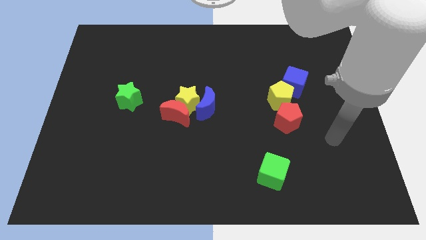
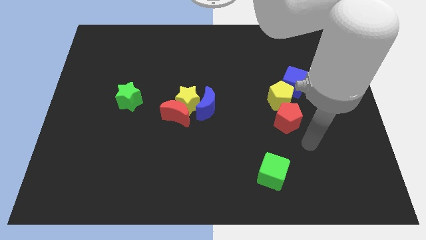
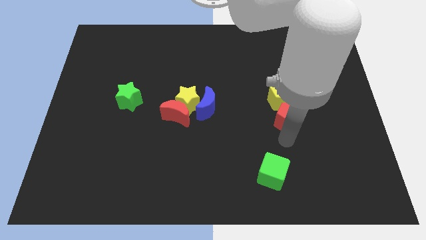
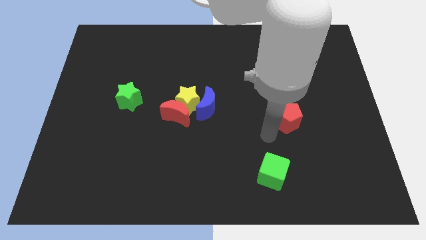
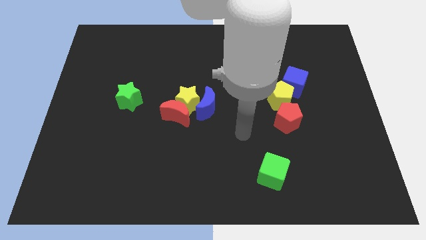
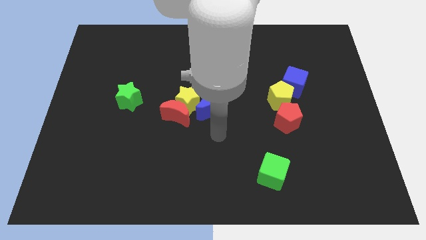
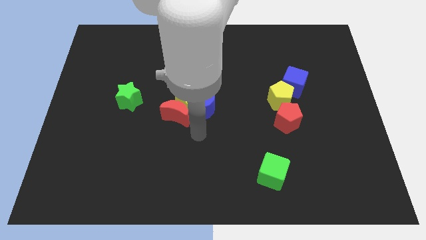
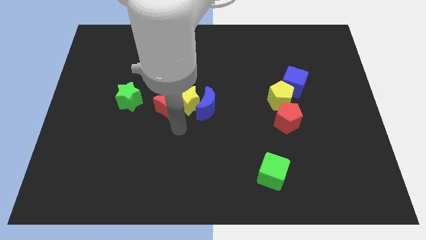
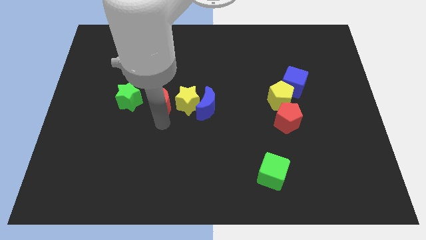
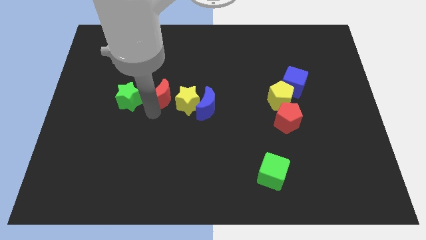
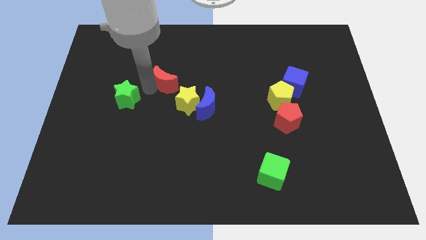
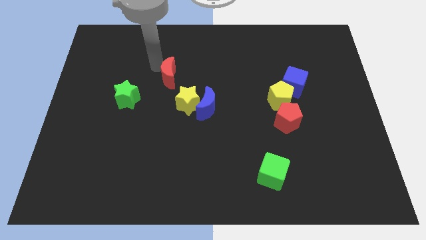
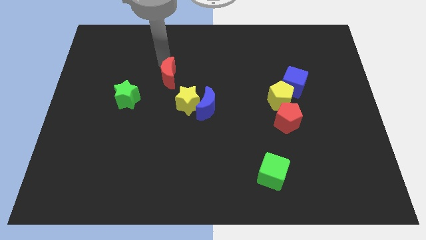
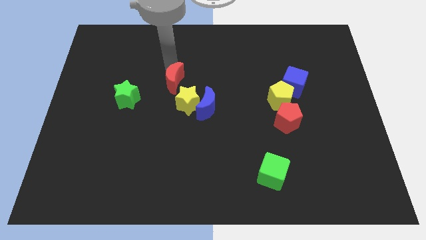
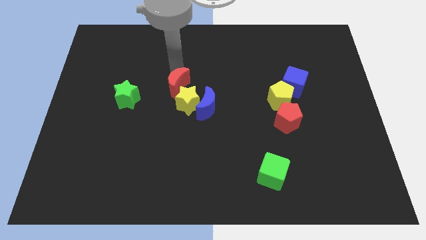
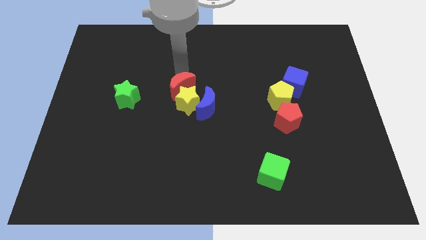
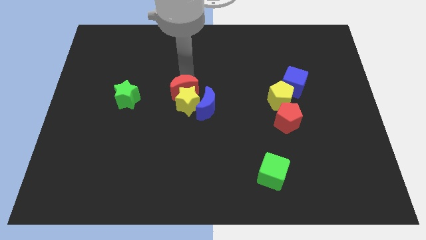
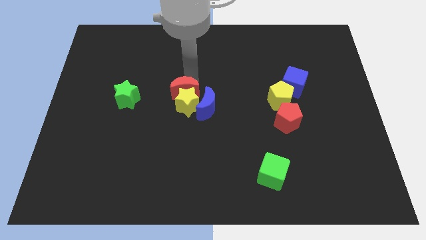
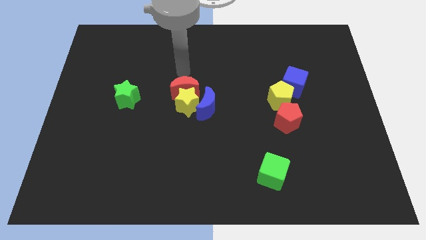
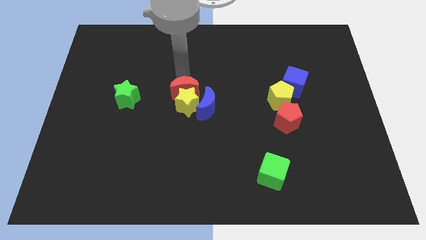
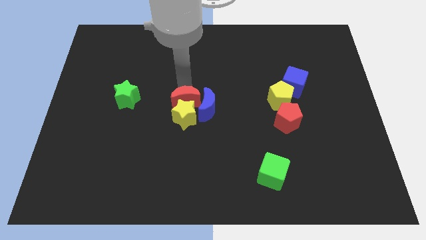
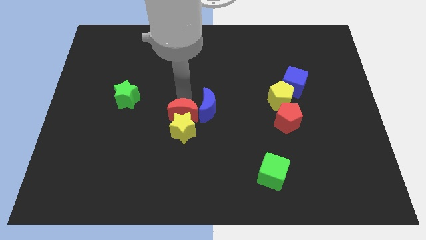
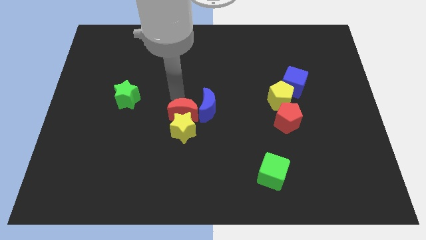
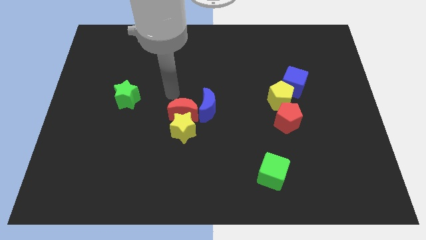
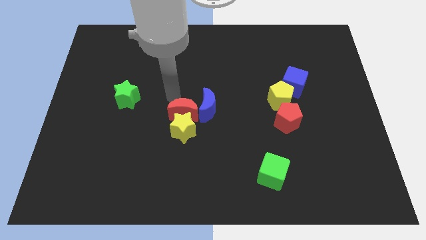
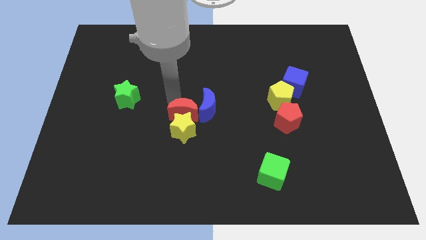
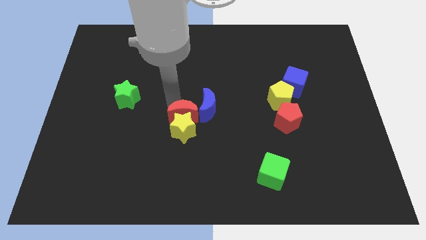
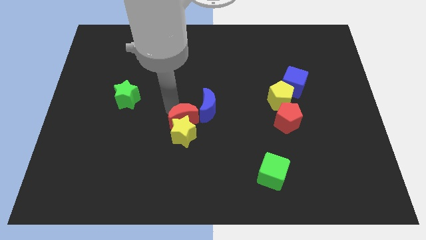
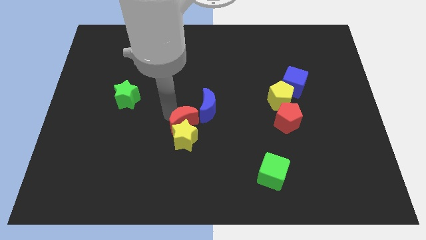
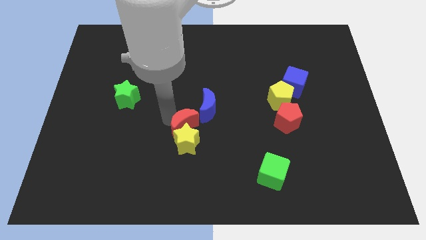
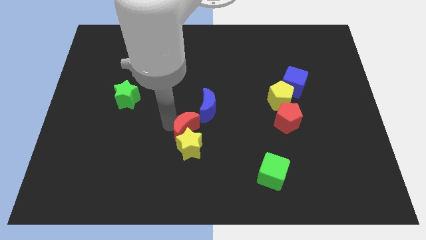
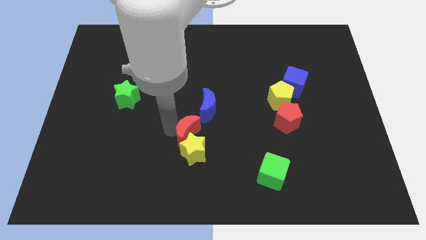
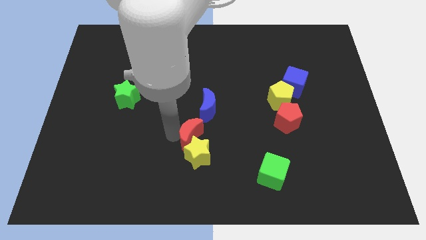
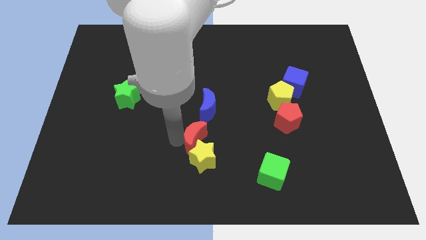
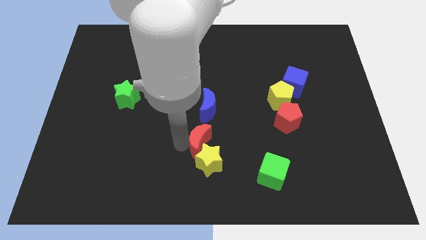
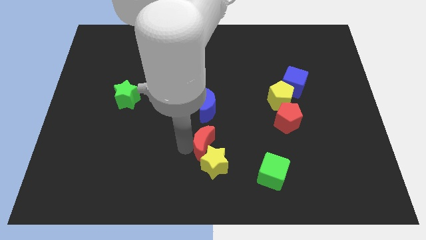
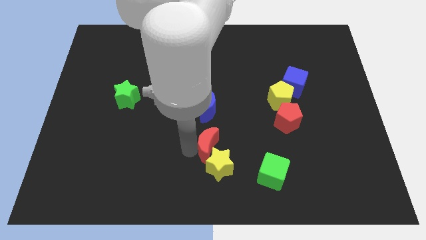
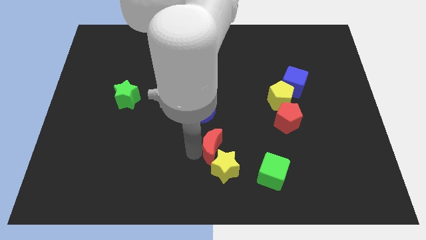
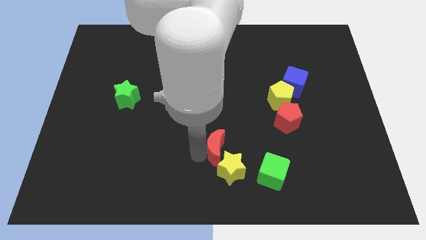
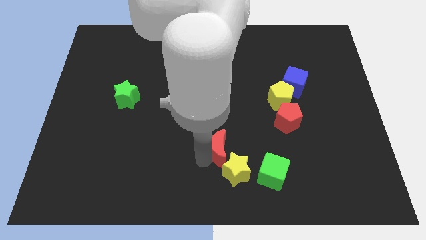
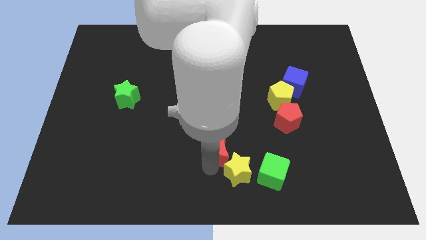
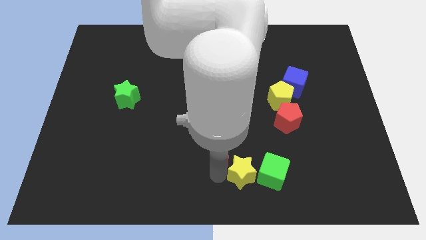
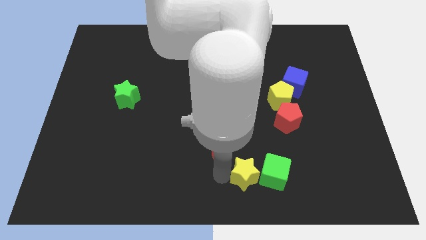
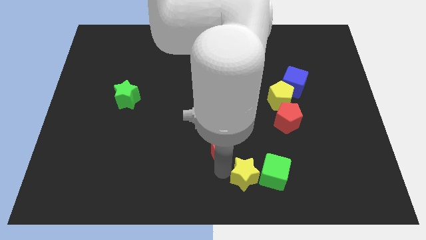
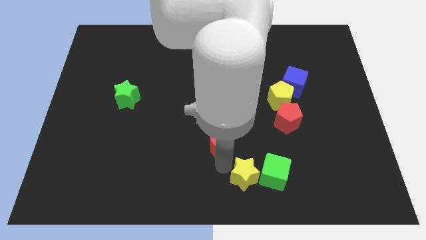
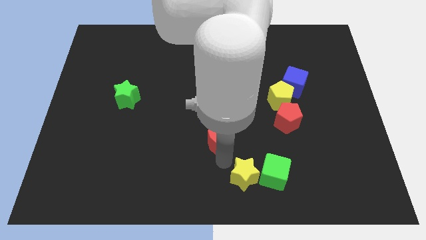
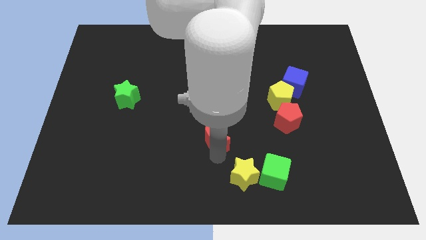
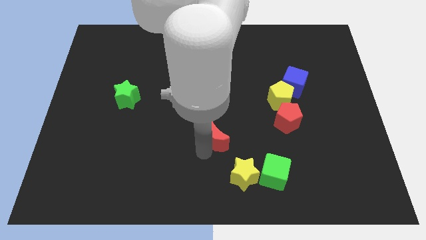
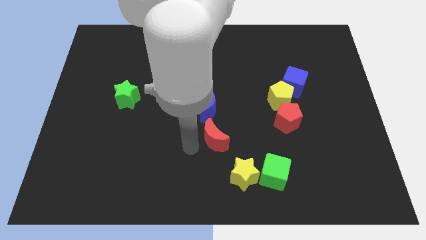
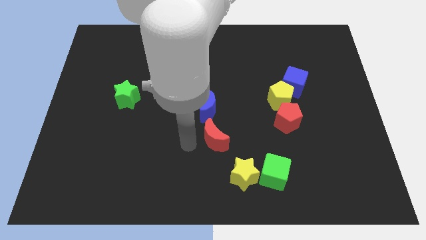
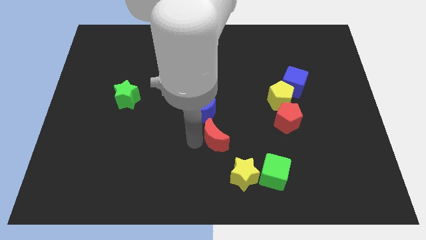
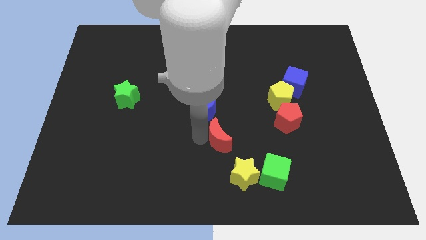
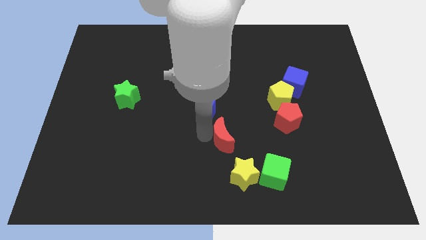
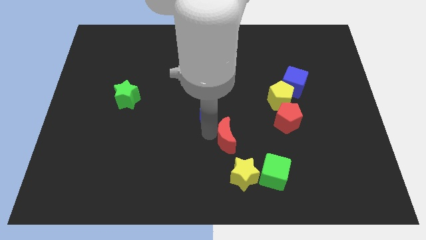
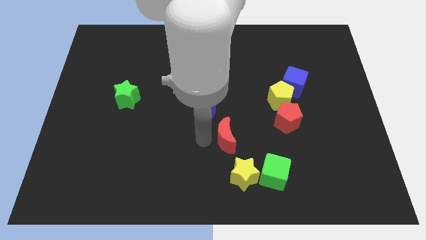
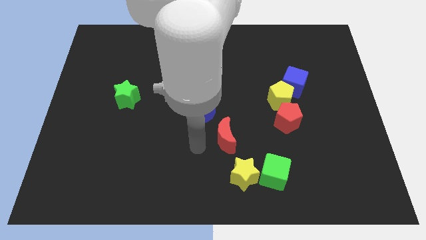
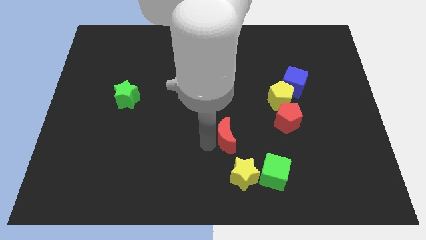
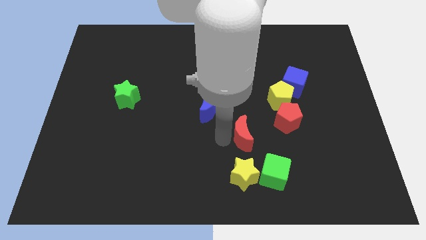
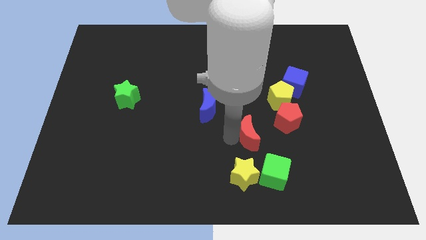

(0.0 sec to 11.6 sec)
slide the red moon to the top side of the green cube
